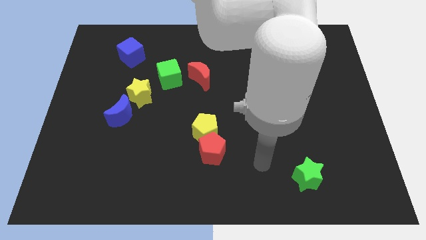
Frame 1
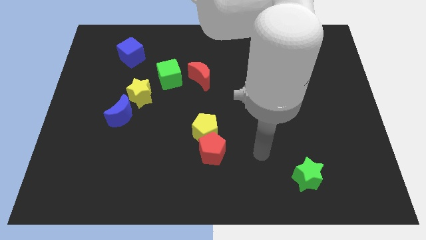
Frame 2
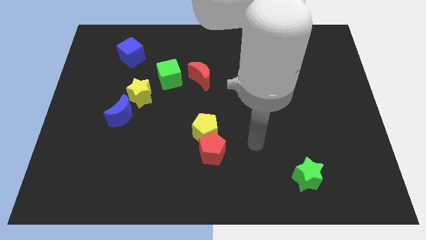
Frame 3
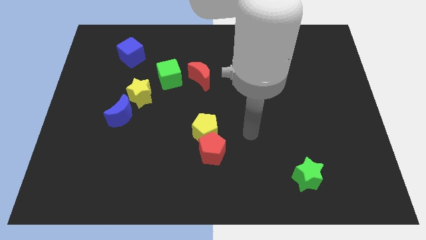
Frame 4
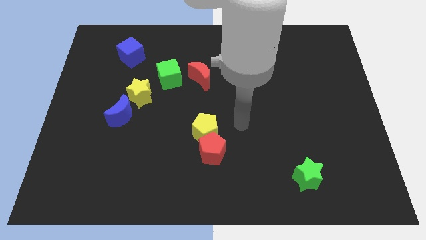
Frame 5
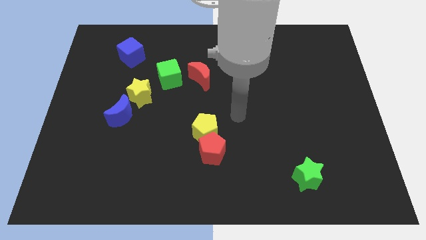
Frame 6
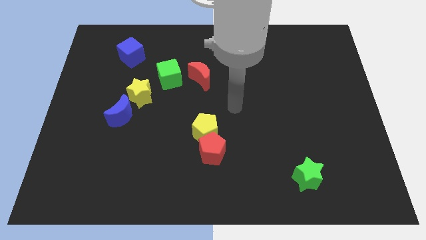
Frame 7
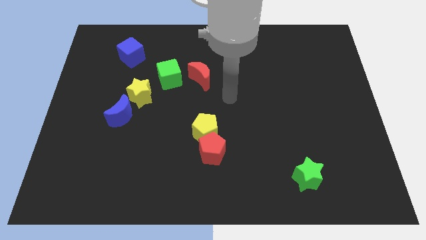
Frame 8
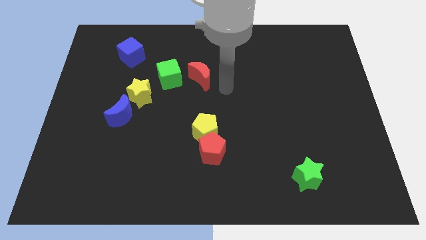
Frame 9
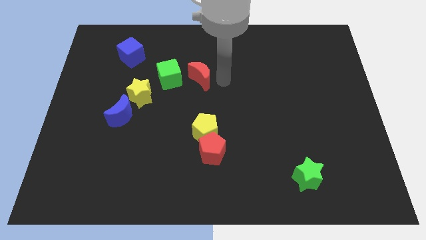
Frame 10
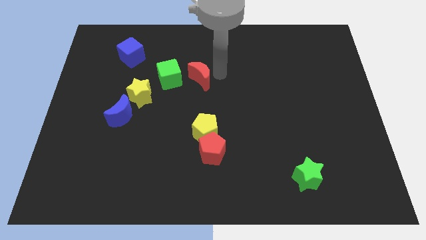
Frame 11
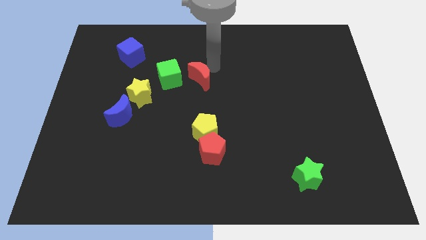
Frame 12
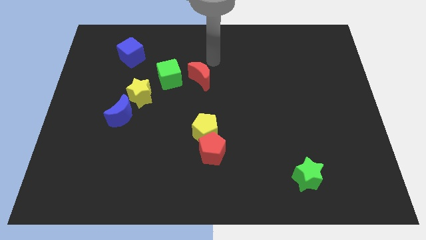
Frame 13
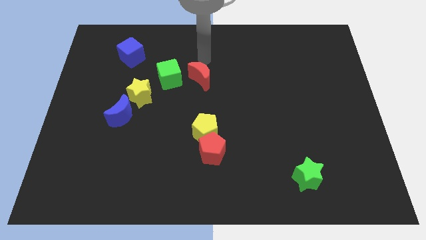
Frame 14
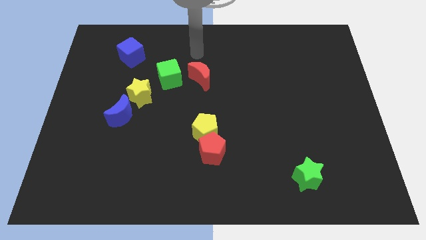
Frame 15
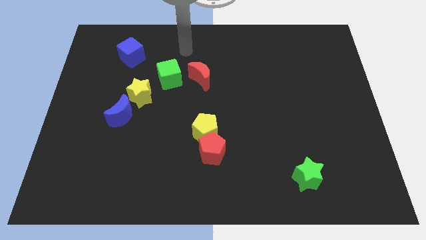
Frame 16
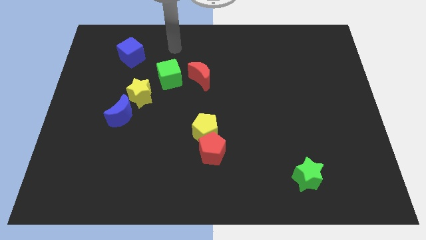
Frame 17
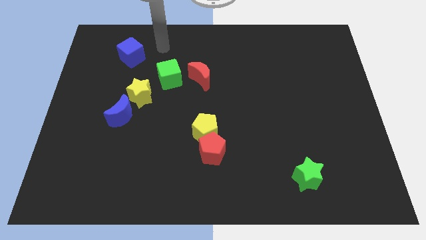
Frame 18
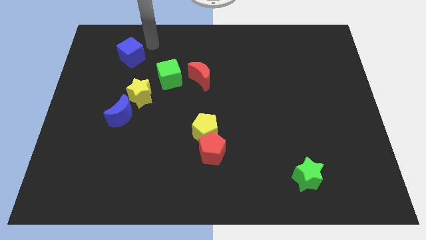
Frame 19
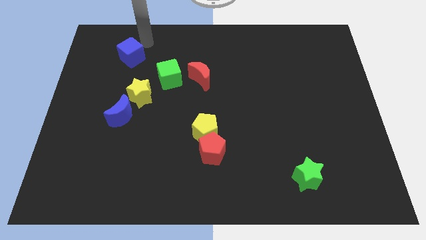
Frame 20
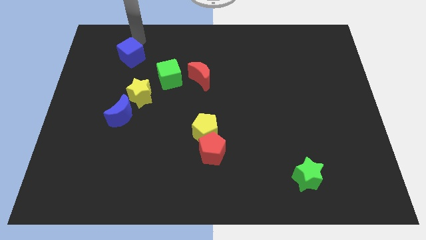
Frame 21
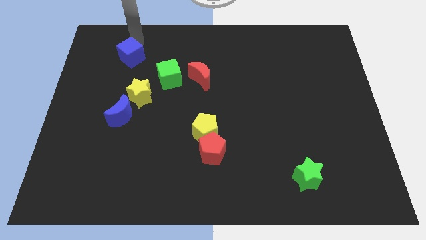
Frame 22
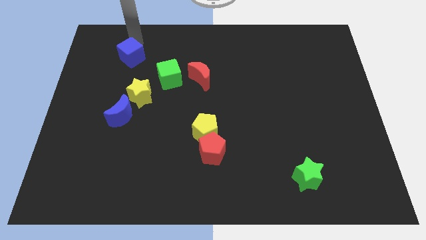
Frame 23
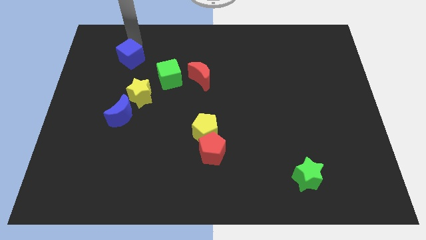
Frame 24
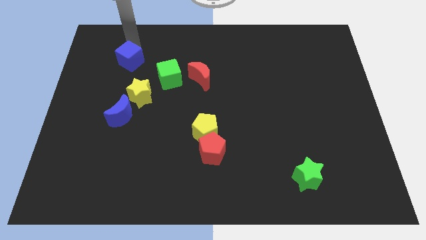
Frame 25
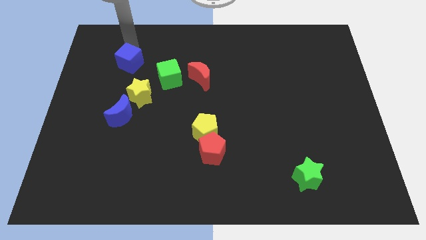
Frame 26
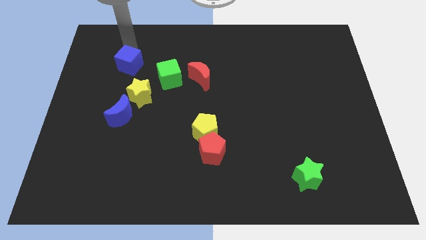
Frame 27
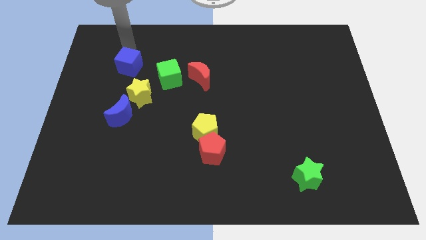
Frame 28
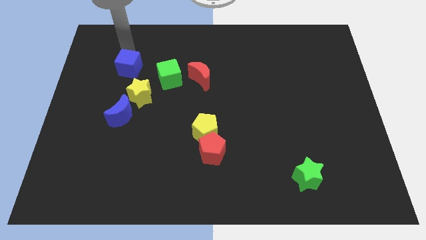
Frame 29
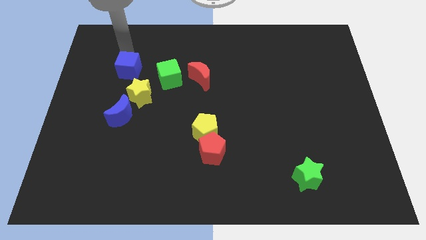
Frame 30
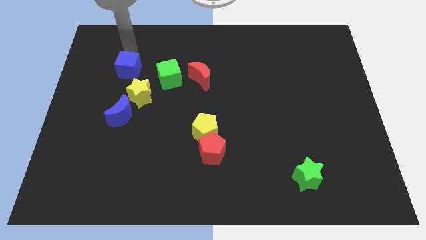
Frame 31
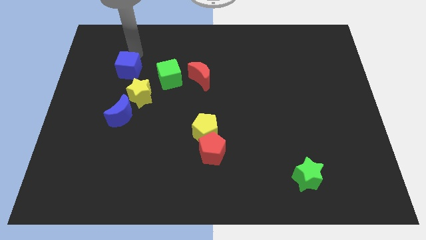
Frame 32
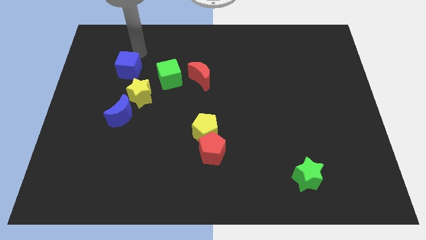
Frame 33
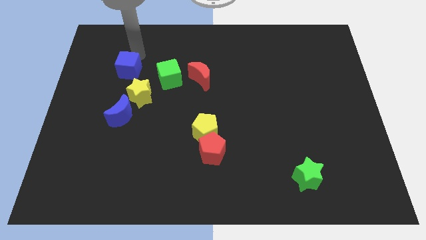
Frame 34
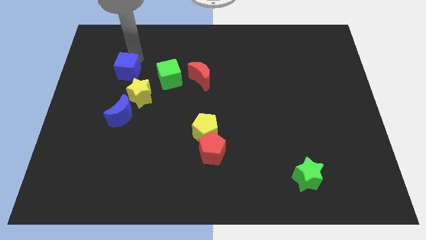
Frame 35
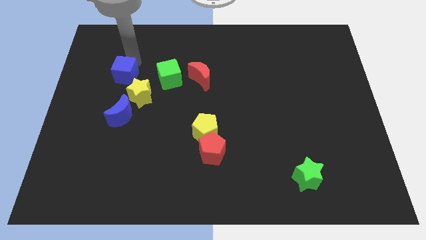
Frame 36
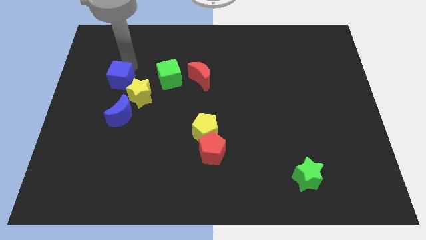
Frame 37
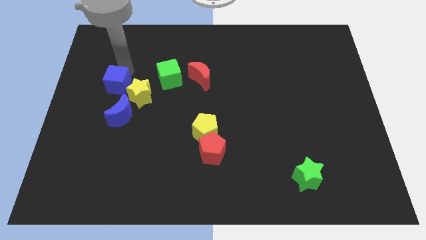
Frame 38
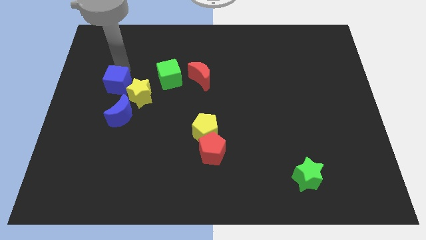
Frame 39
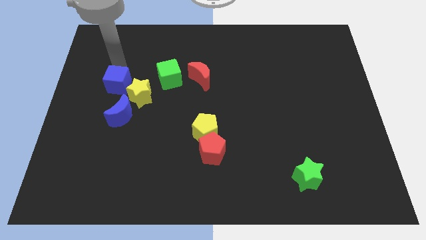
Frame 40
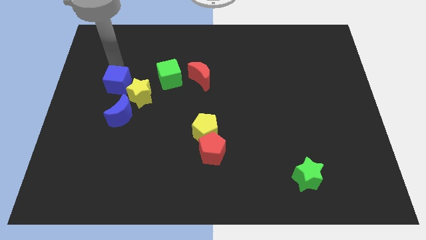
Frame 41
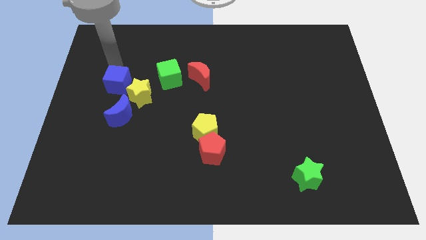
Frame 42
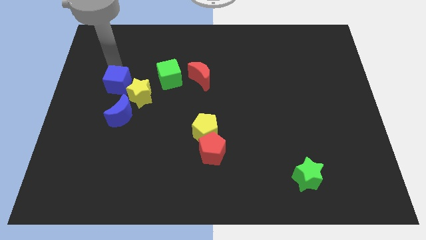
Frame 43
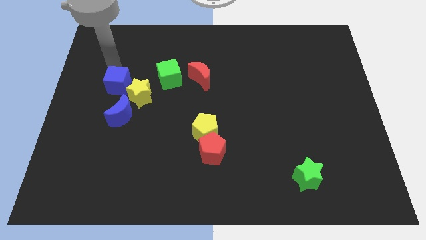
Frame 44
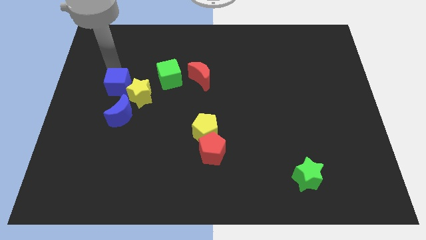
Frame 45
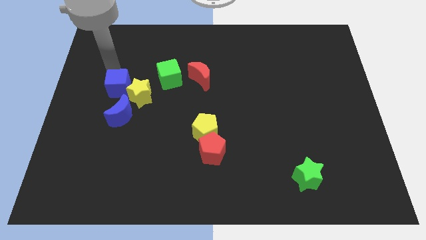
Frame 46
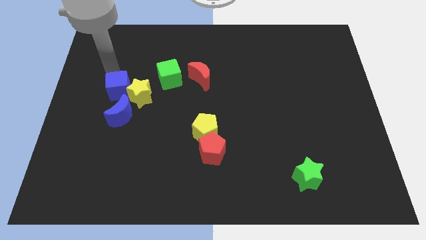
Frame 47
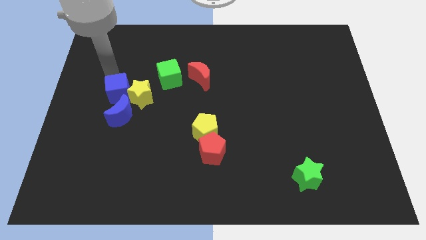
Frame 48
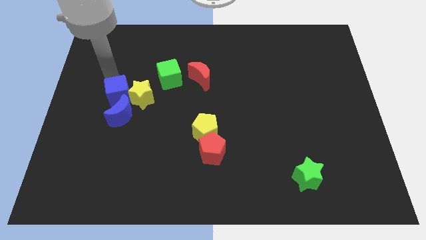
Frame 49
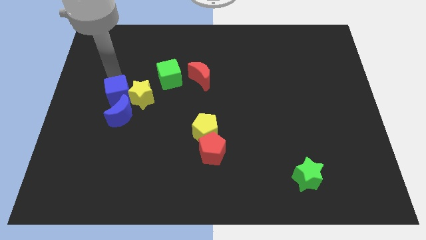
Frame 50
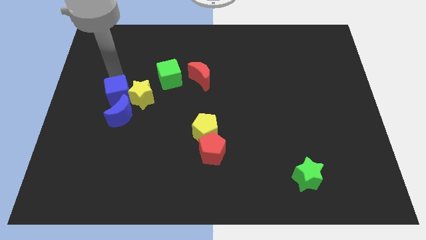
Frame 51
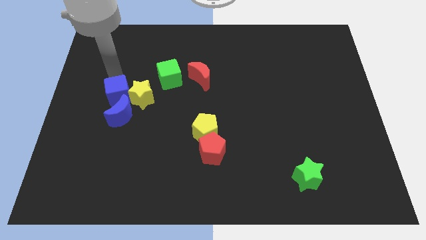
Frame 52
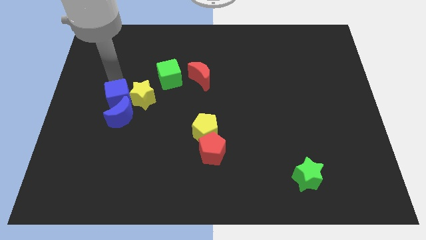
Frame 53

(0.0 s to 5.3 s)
put the blue cube next to the blue moon

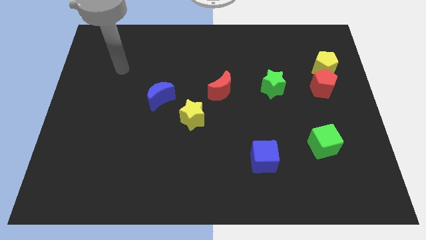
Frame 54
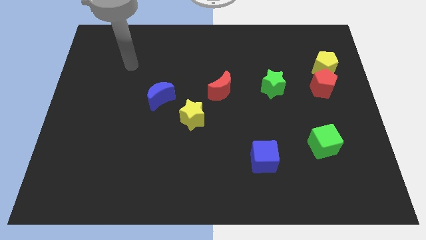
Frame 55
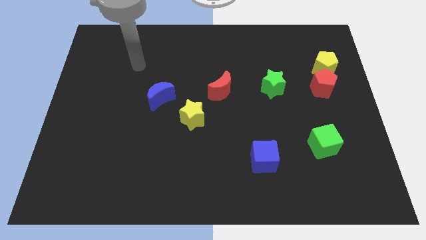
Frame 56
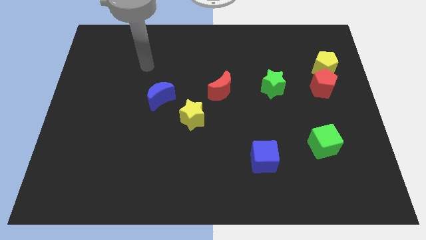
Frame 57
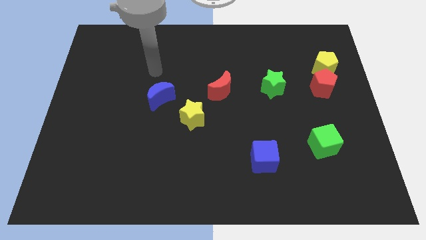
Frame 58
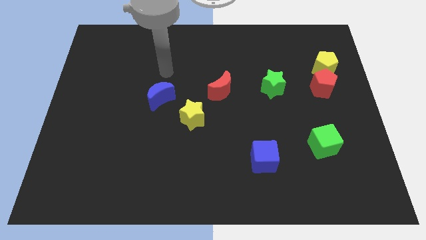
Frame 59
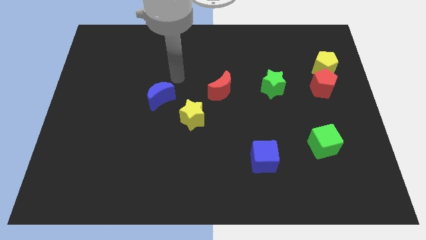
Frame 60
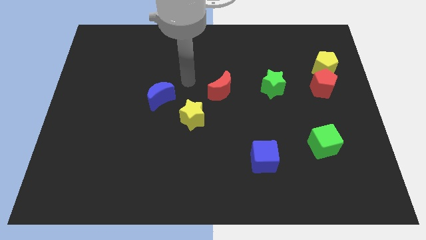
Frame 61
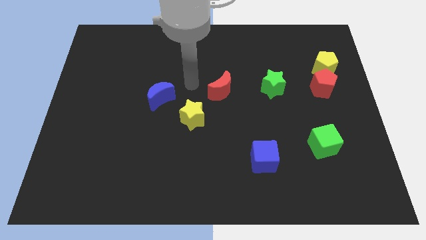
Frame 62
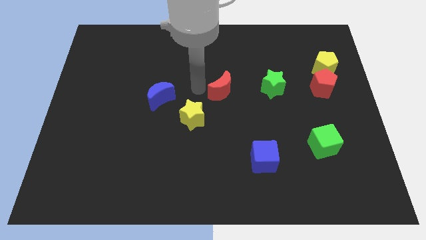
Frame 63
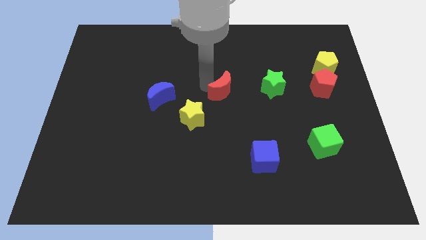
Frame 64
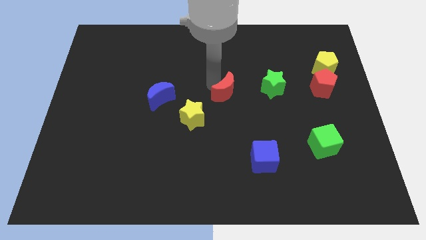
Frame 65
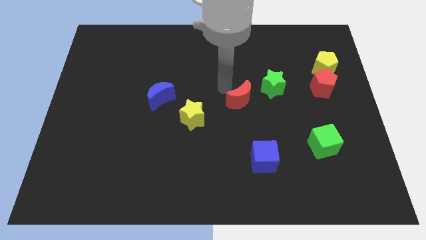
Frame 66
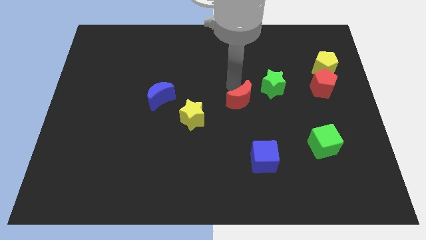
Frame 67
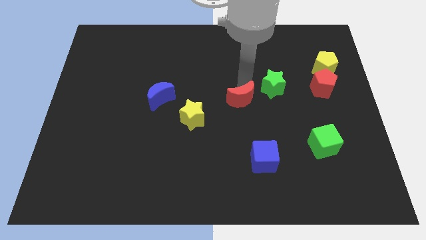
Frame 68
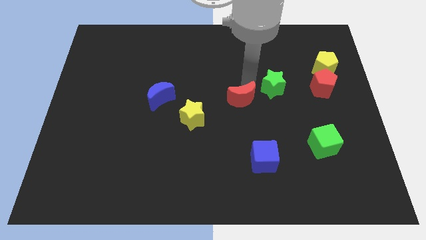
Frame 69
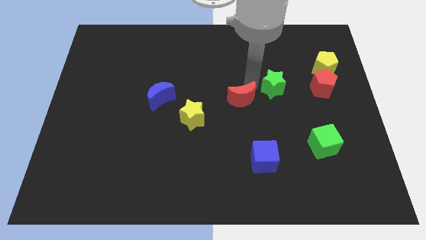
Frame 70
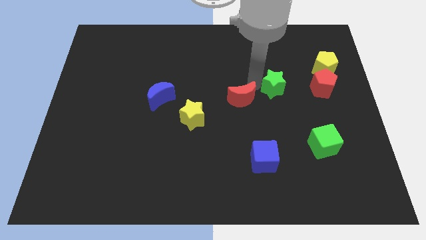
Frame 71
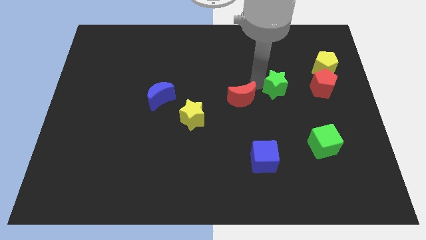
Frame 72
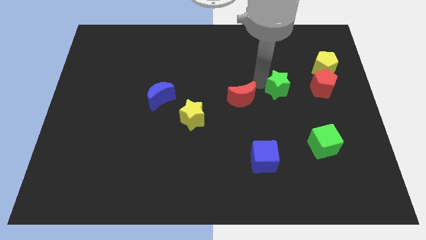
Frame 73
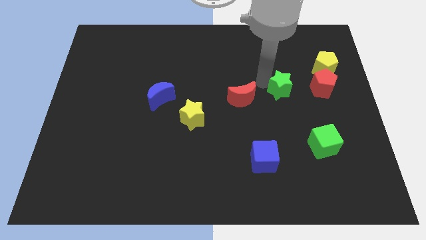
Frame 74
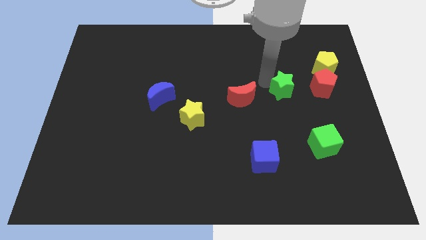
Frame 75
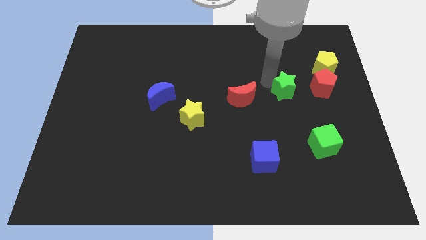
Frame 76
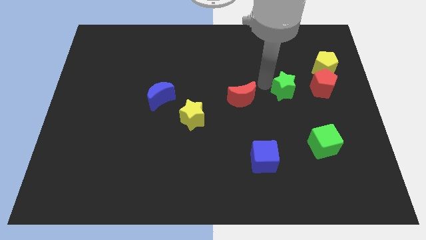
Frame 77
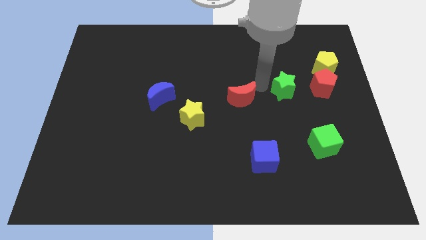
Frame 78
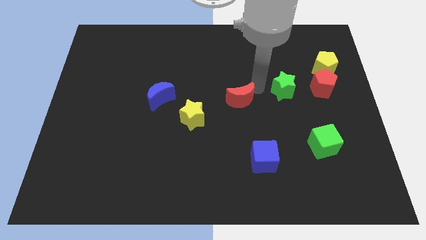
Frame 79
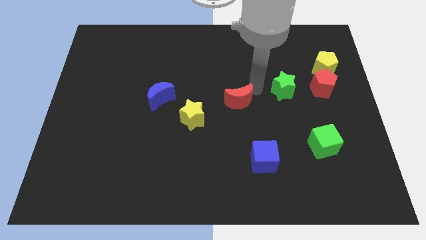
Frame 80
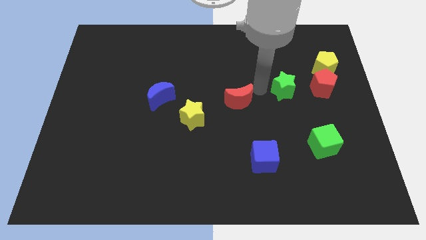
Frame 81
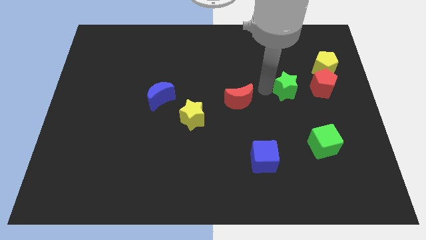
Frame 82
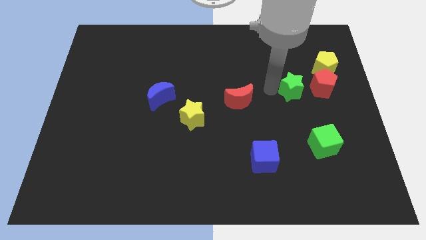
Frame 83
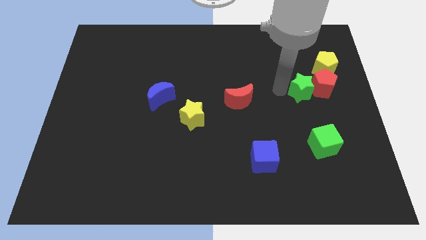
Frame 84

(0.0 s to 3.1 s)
move the green star towards the red pentagon
